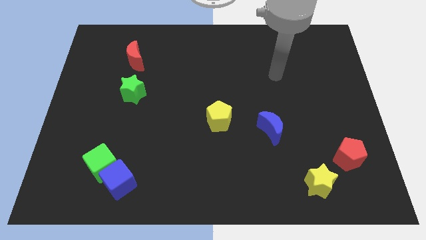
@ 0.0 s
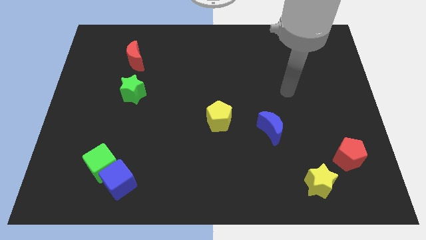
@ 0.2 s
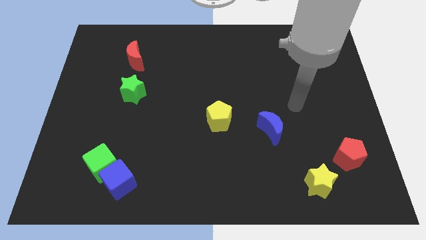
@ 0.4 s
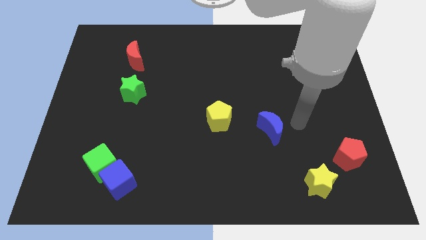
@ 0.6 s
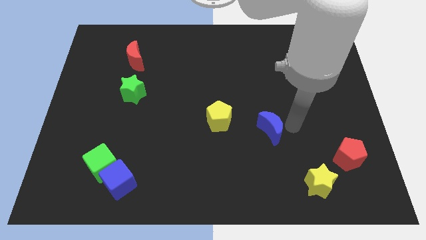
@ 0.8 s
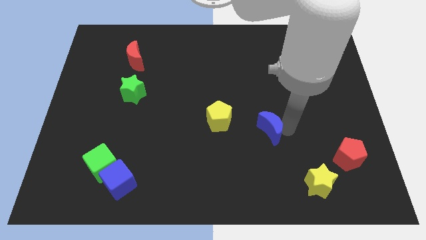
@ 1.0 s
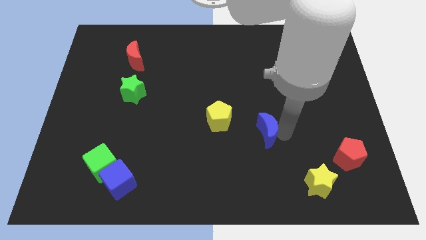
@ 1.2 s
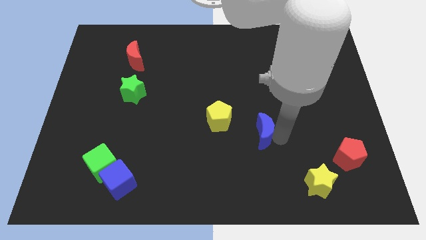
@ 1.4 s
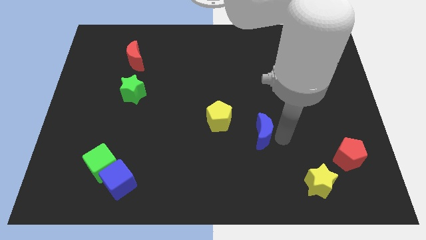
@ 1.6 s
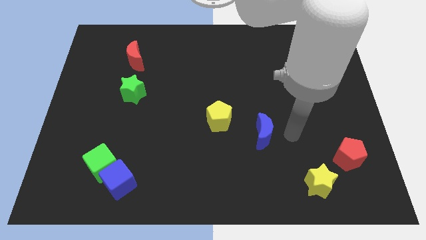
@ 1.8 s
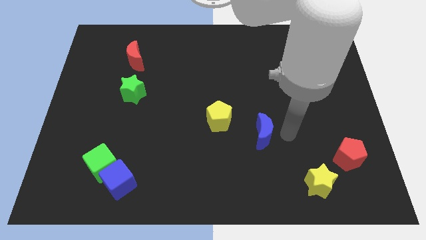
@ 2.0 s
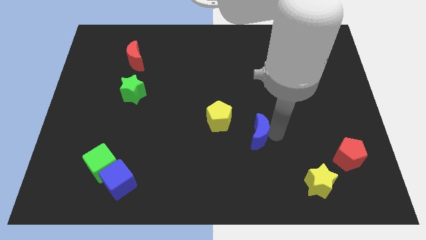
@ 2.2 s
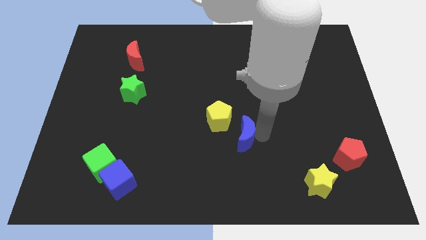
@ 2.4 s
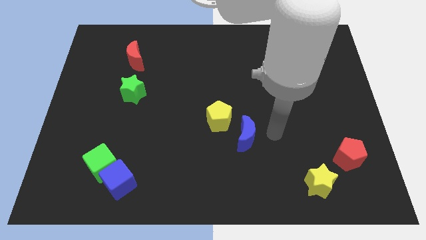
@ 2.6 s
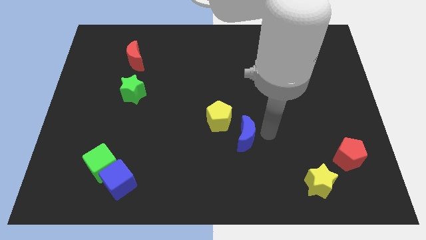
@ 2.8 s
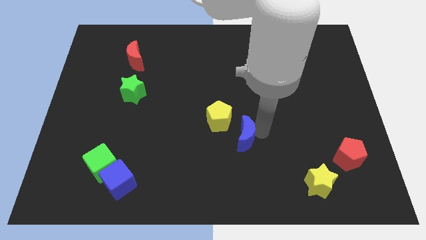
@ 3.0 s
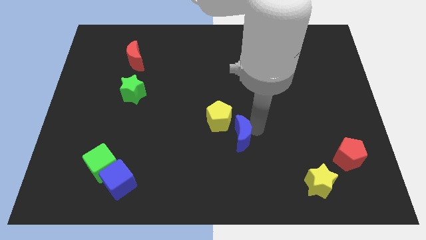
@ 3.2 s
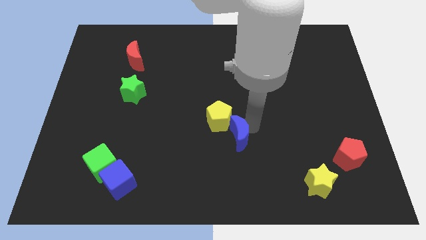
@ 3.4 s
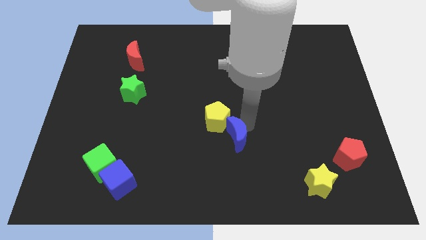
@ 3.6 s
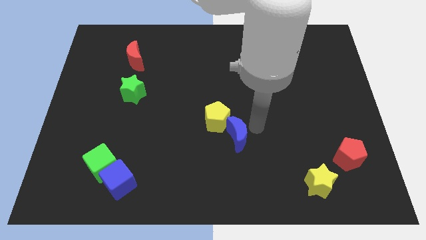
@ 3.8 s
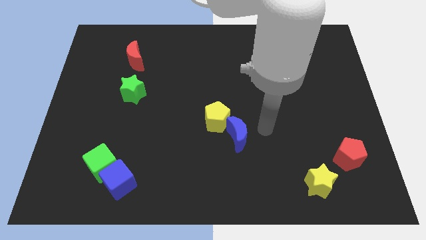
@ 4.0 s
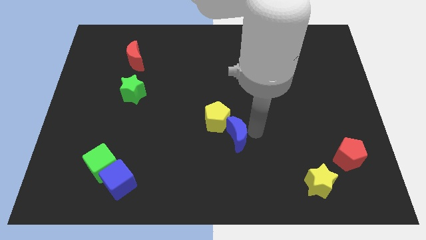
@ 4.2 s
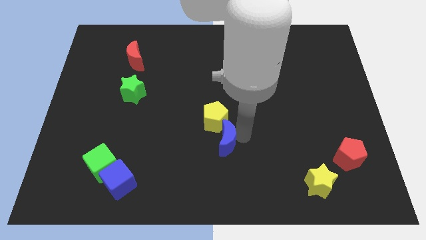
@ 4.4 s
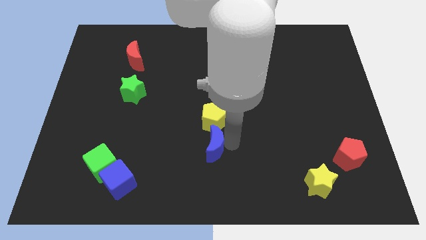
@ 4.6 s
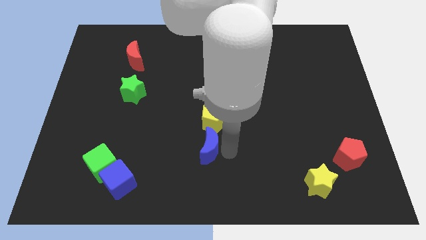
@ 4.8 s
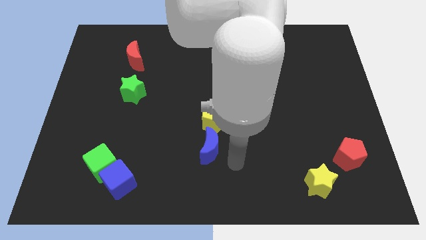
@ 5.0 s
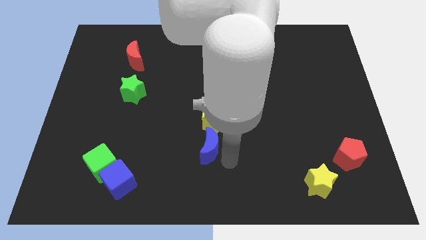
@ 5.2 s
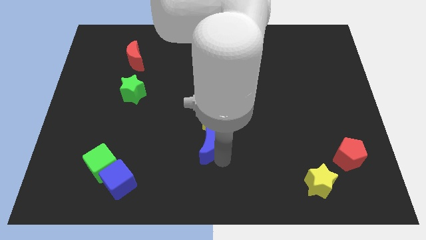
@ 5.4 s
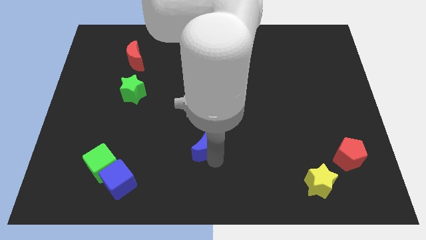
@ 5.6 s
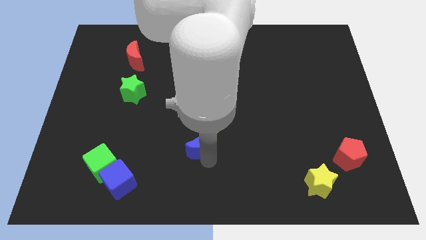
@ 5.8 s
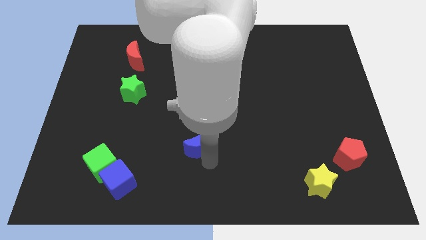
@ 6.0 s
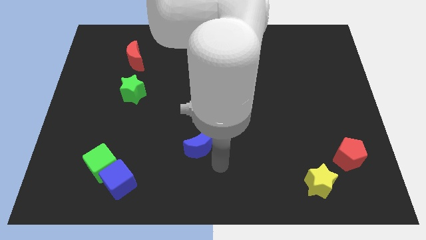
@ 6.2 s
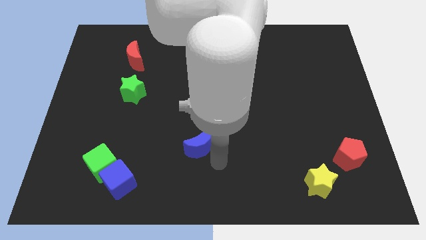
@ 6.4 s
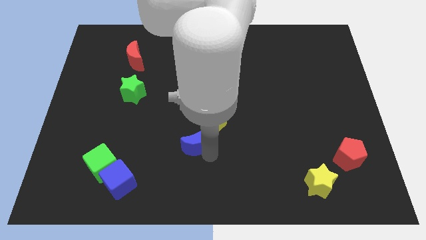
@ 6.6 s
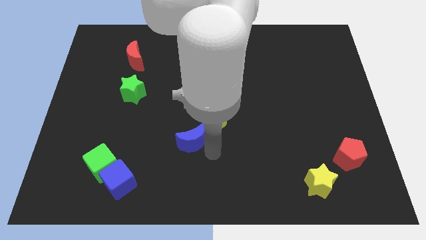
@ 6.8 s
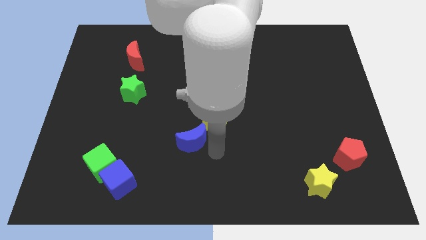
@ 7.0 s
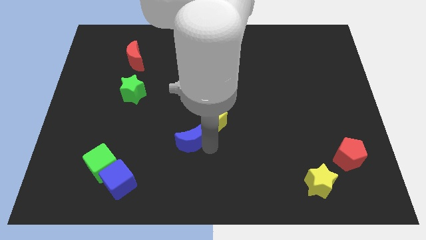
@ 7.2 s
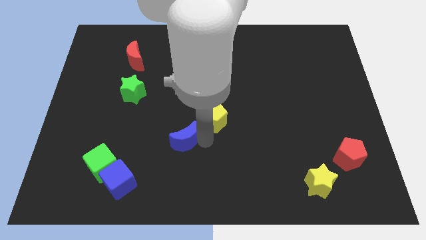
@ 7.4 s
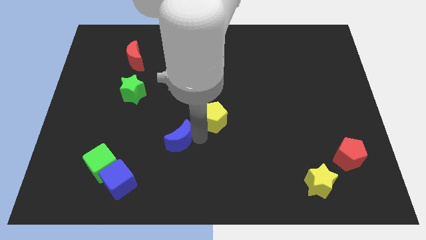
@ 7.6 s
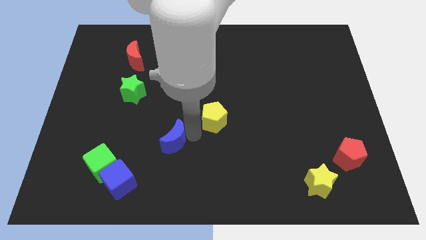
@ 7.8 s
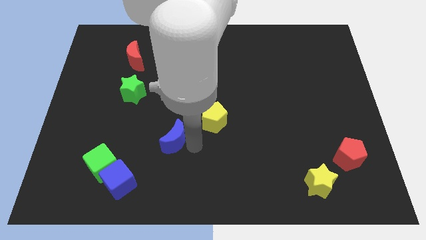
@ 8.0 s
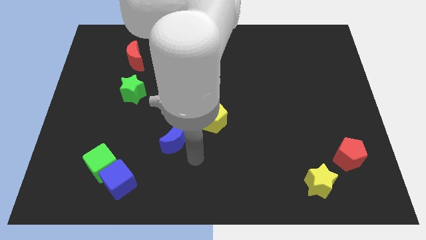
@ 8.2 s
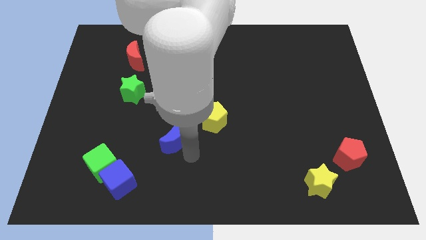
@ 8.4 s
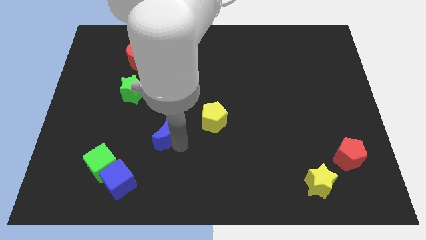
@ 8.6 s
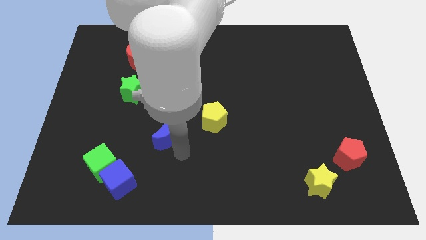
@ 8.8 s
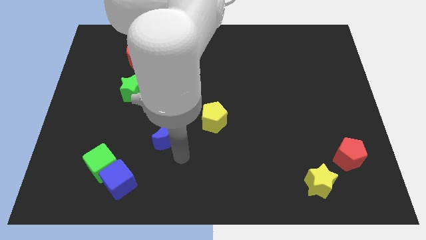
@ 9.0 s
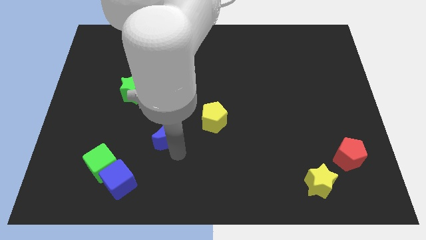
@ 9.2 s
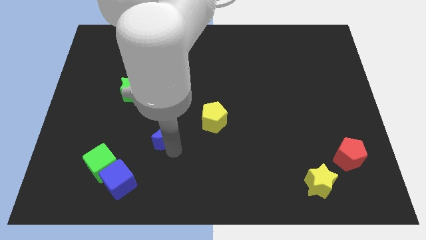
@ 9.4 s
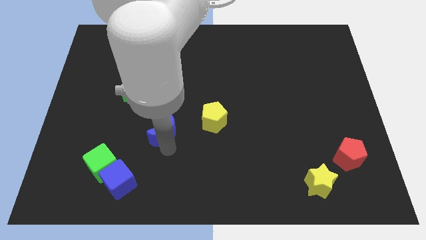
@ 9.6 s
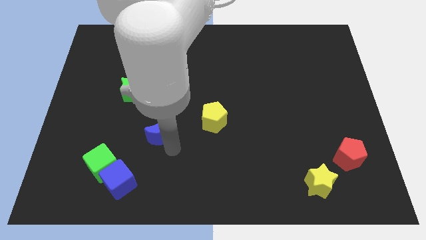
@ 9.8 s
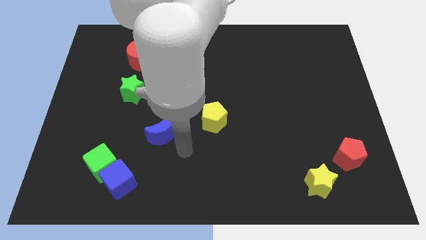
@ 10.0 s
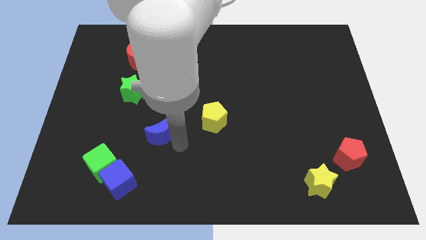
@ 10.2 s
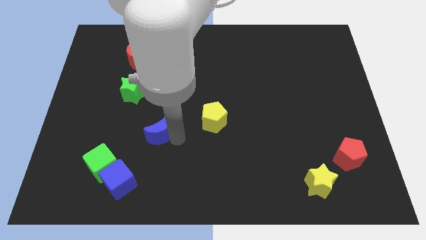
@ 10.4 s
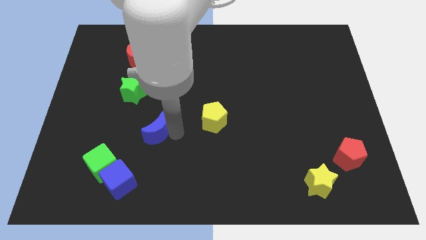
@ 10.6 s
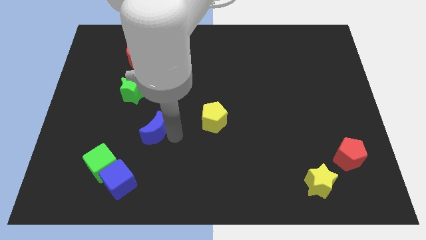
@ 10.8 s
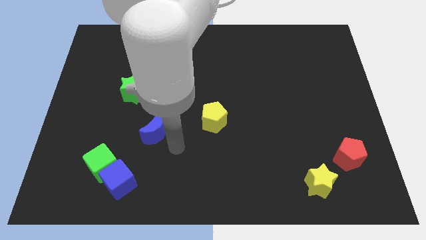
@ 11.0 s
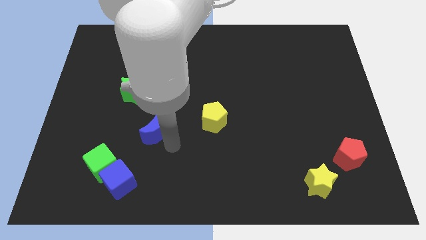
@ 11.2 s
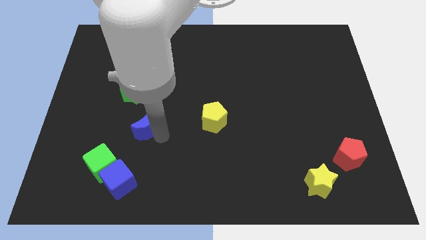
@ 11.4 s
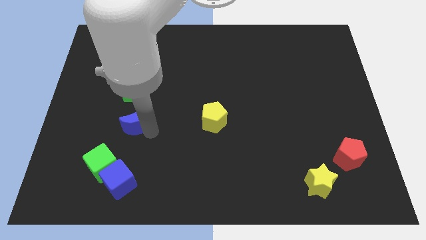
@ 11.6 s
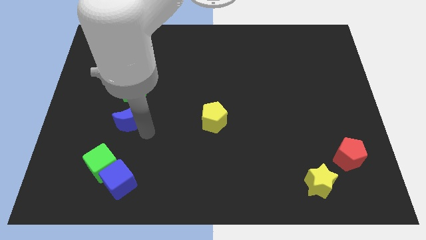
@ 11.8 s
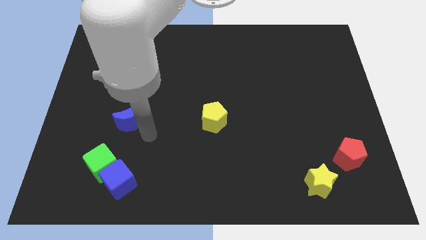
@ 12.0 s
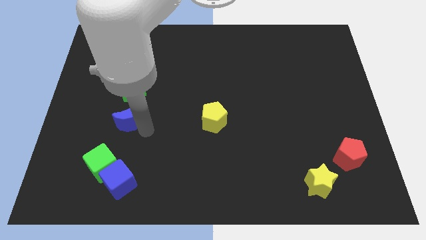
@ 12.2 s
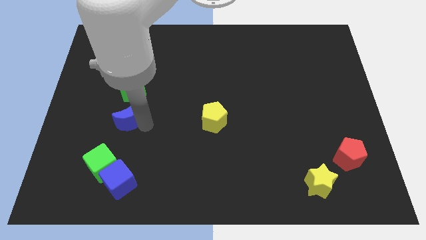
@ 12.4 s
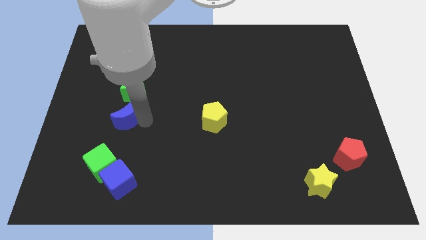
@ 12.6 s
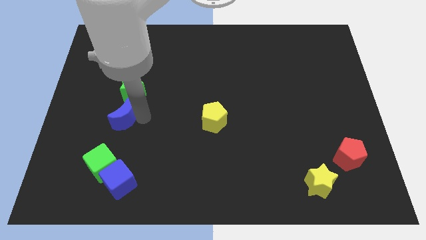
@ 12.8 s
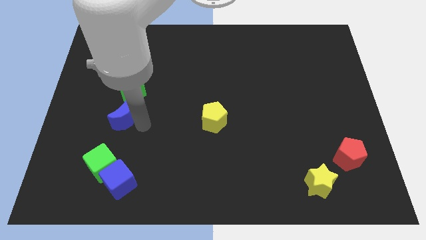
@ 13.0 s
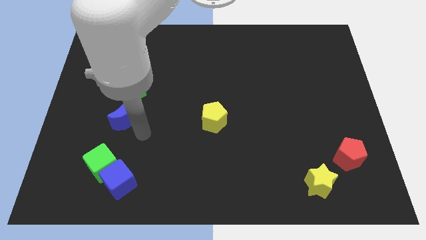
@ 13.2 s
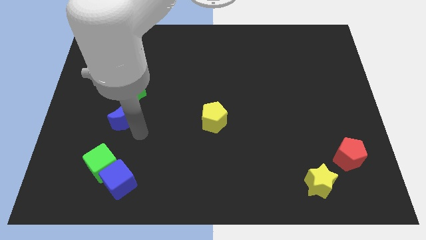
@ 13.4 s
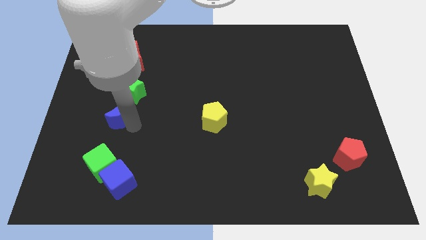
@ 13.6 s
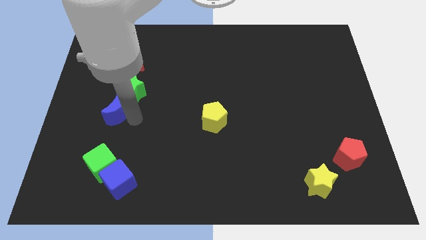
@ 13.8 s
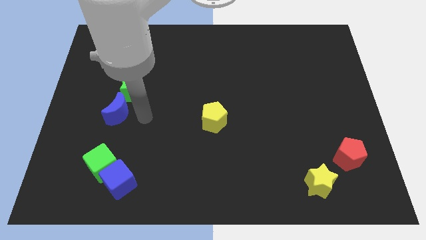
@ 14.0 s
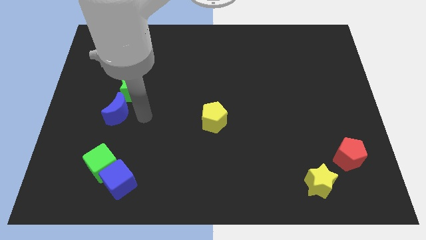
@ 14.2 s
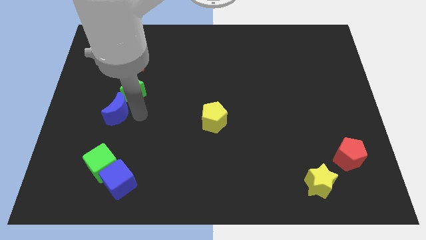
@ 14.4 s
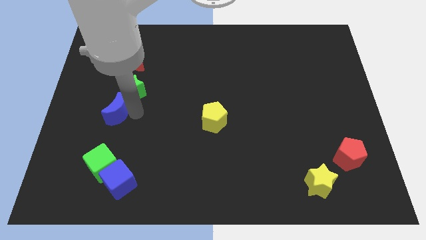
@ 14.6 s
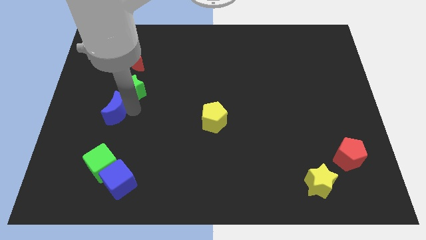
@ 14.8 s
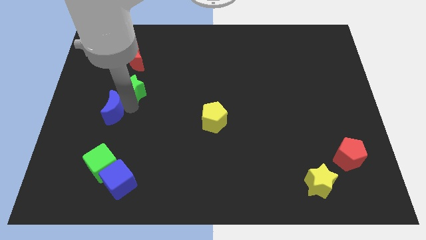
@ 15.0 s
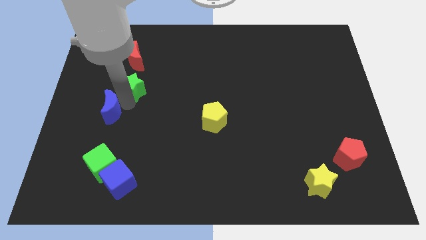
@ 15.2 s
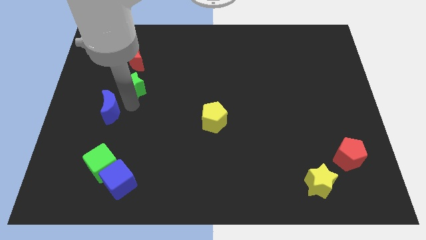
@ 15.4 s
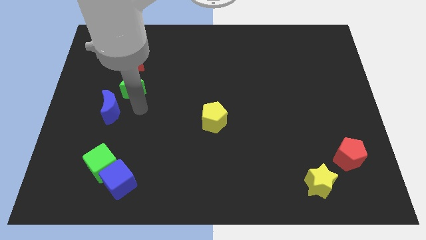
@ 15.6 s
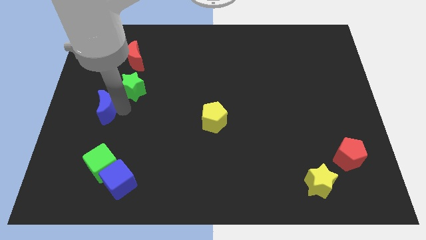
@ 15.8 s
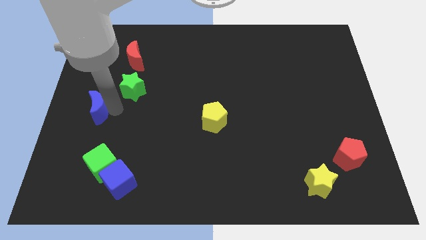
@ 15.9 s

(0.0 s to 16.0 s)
move the blue moon to the left side of the board
